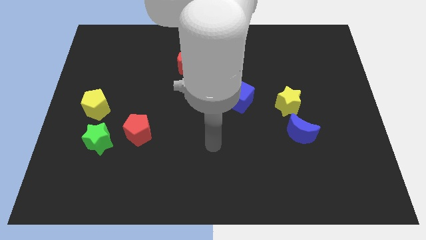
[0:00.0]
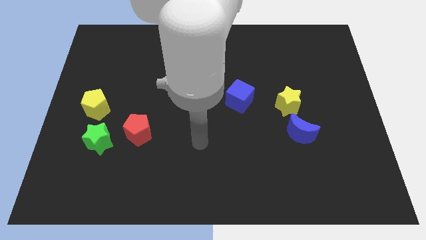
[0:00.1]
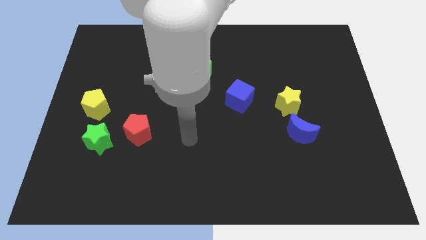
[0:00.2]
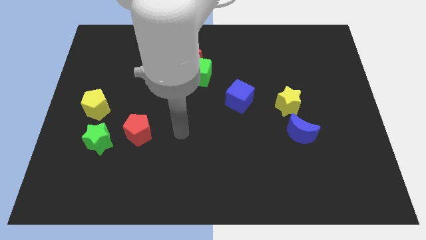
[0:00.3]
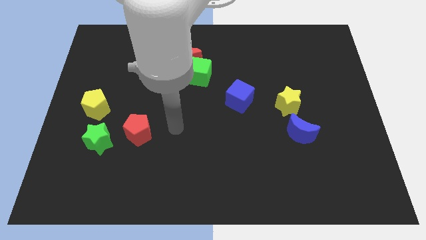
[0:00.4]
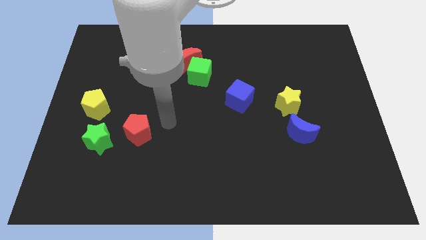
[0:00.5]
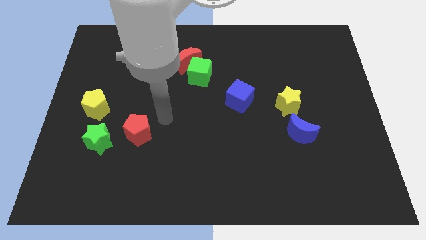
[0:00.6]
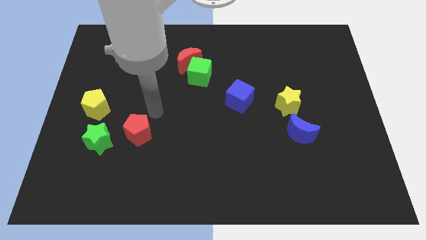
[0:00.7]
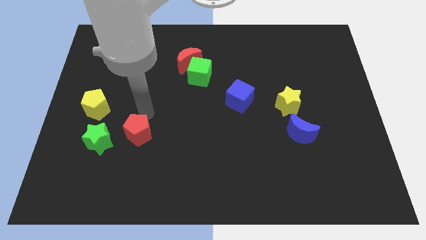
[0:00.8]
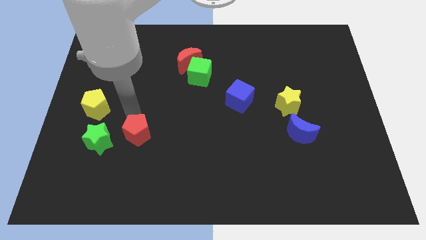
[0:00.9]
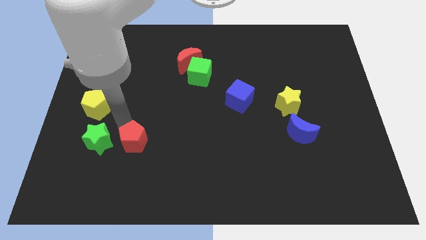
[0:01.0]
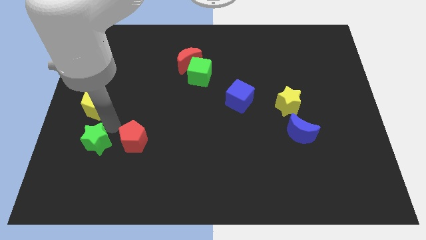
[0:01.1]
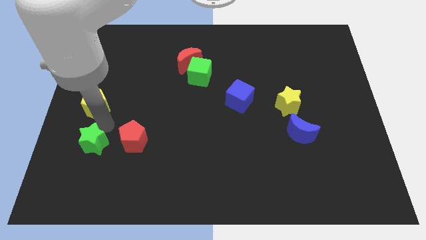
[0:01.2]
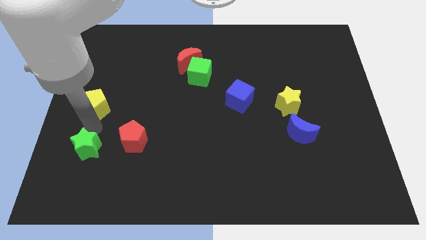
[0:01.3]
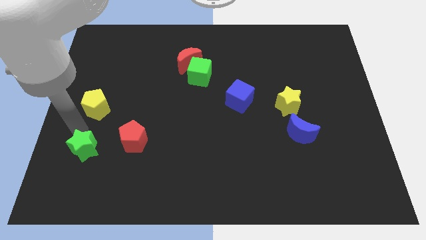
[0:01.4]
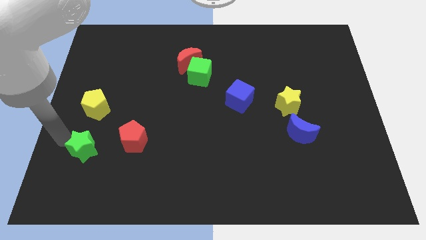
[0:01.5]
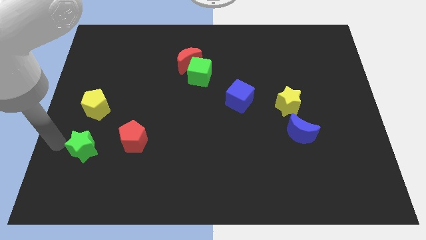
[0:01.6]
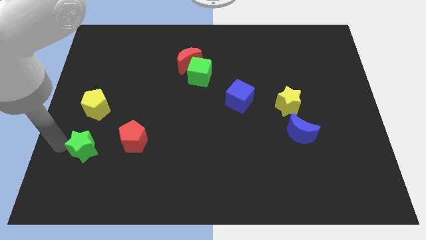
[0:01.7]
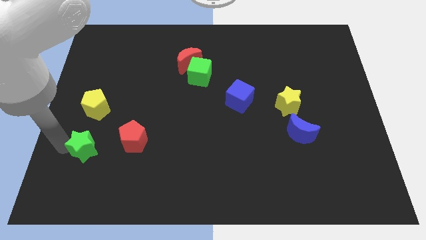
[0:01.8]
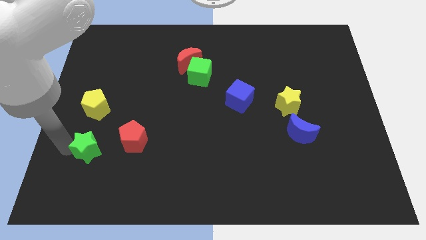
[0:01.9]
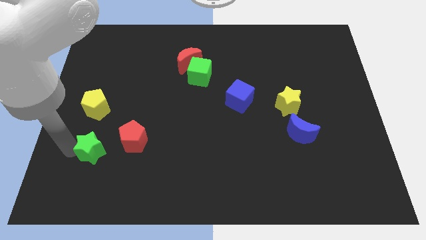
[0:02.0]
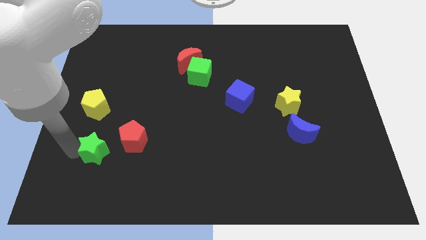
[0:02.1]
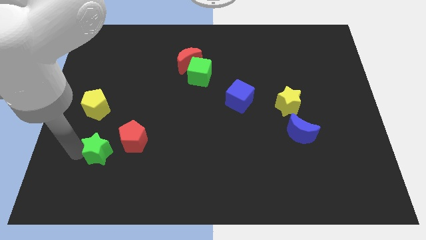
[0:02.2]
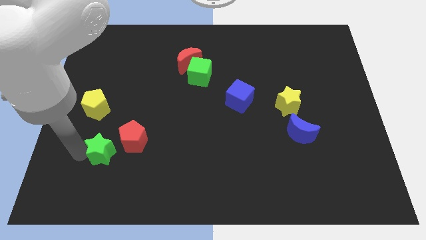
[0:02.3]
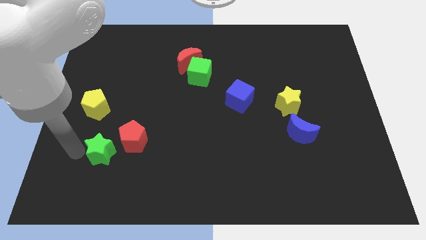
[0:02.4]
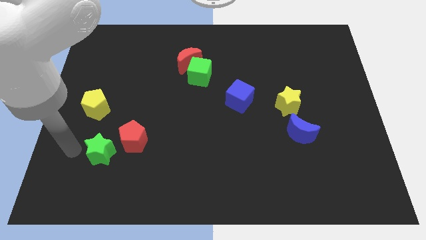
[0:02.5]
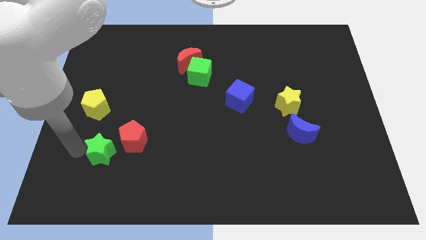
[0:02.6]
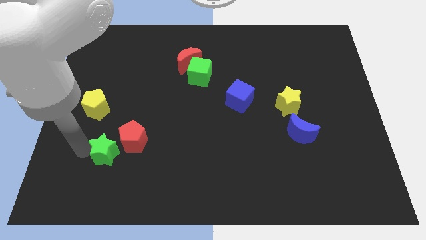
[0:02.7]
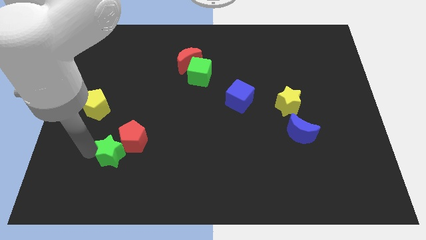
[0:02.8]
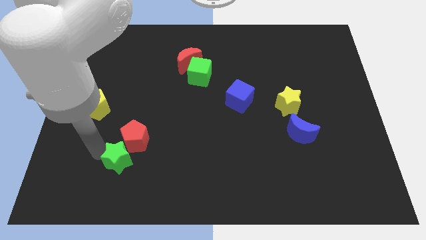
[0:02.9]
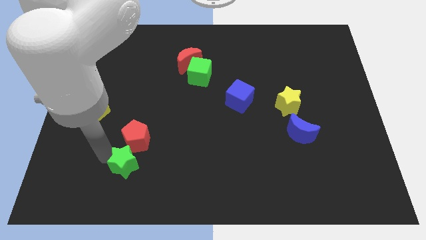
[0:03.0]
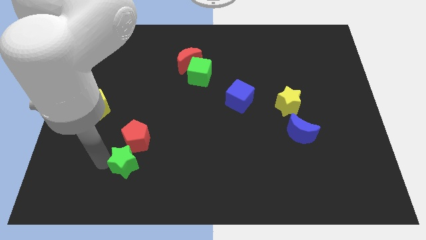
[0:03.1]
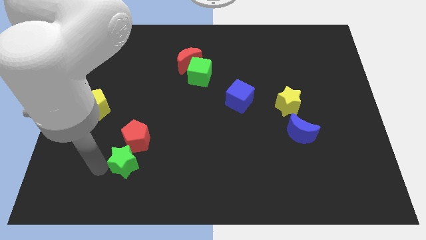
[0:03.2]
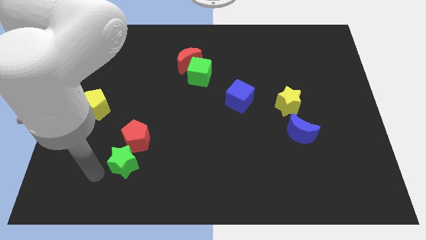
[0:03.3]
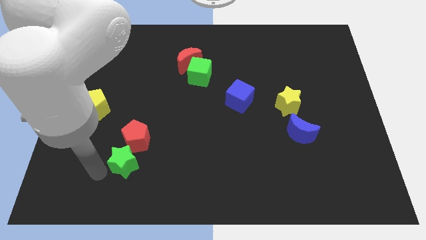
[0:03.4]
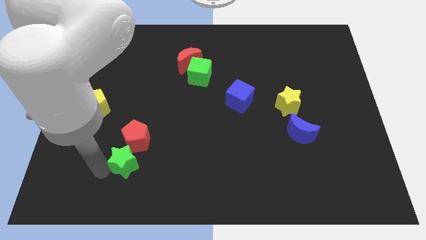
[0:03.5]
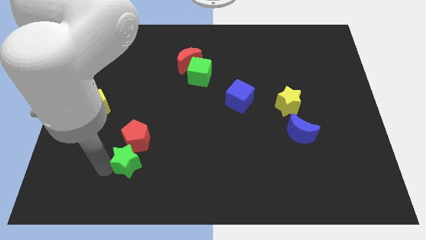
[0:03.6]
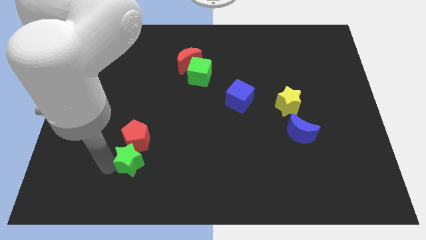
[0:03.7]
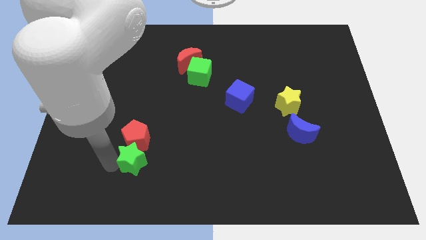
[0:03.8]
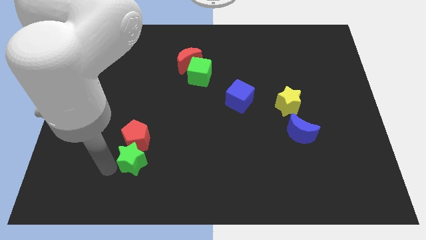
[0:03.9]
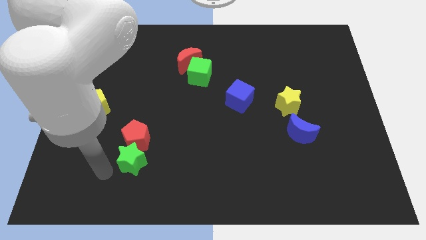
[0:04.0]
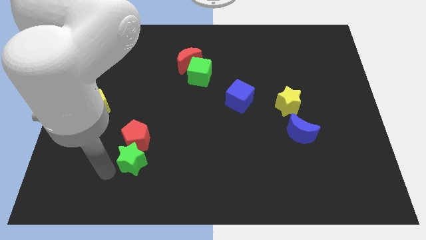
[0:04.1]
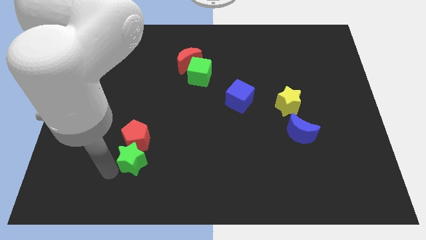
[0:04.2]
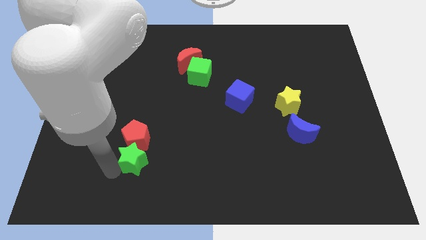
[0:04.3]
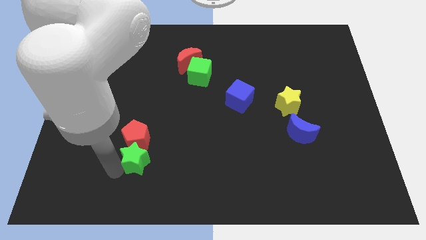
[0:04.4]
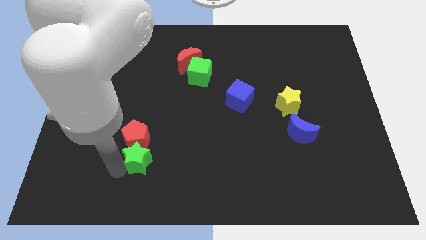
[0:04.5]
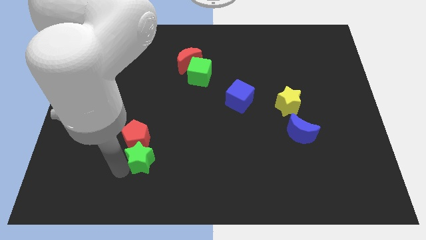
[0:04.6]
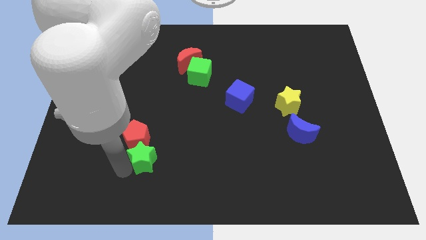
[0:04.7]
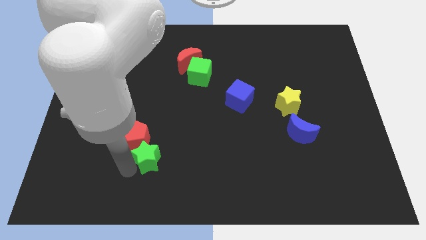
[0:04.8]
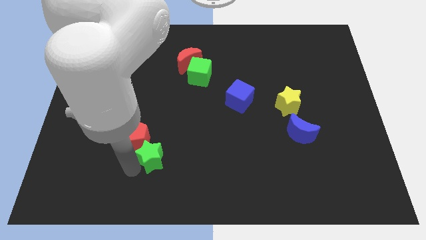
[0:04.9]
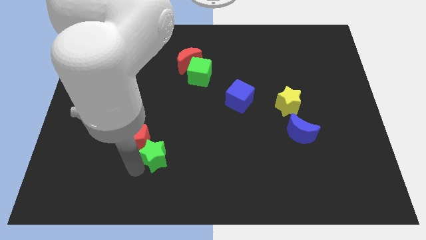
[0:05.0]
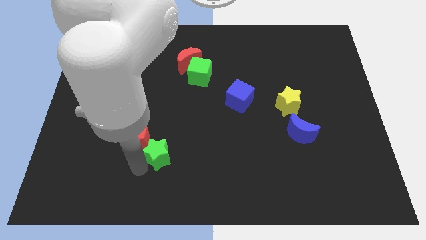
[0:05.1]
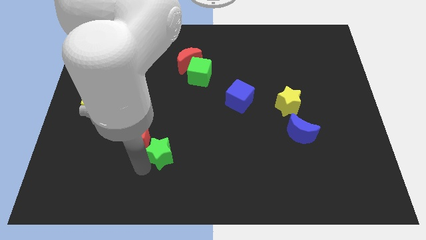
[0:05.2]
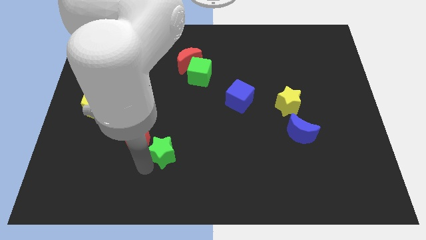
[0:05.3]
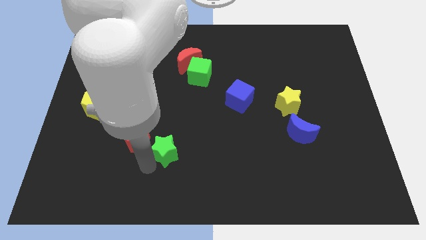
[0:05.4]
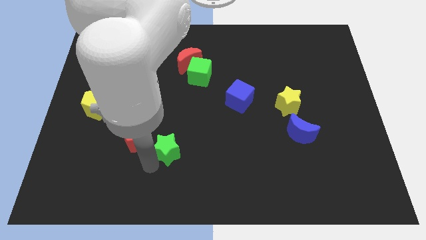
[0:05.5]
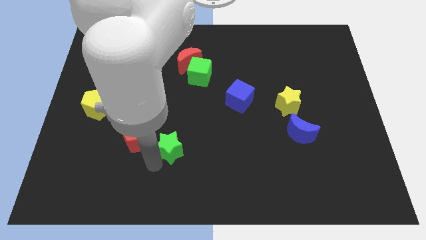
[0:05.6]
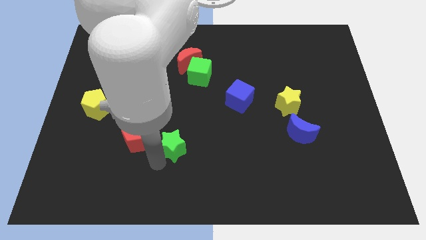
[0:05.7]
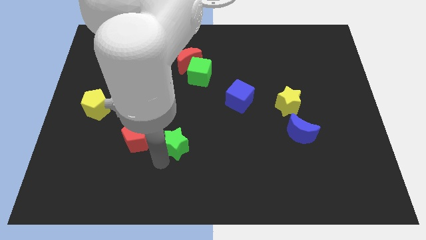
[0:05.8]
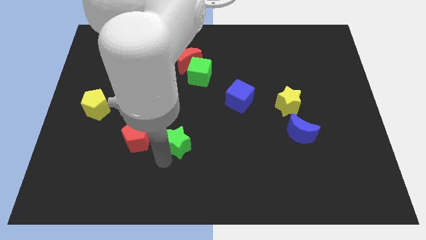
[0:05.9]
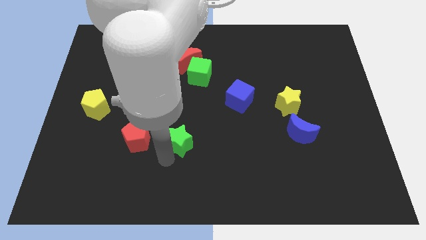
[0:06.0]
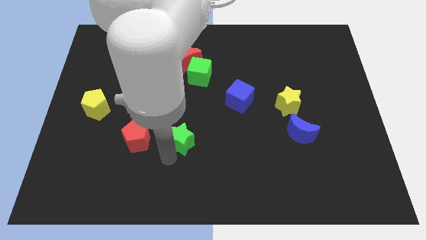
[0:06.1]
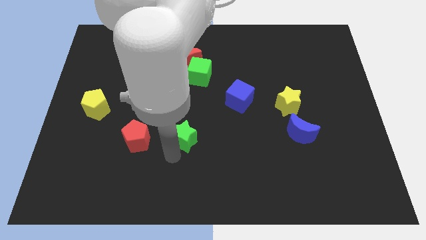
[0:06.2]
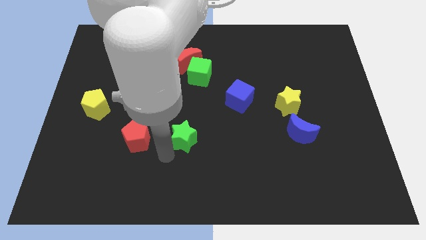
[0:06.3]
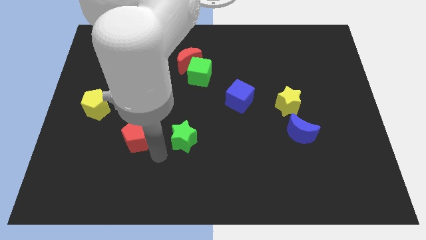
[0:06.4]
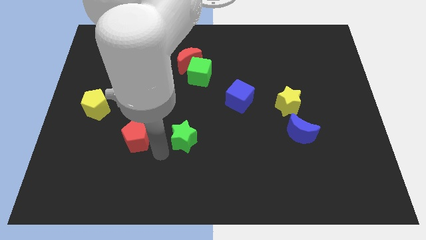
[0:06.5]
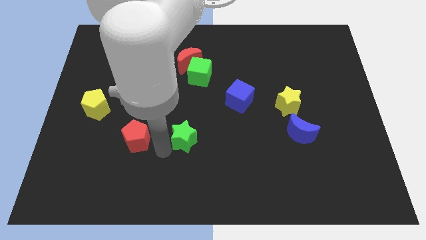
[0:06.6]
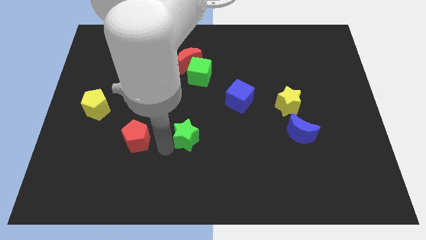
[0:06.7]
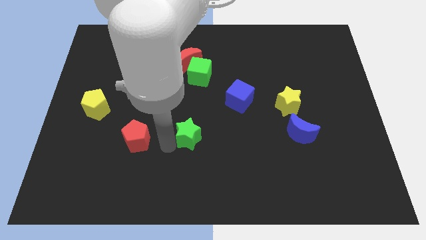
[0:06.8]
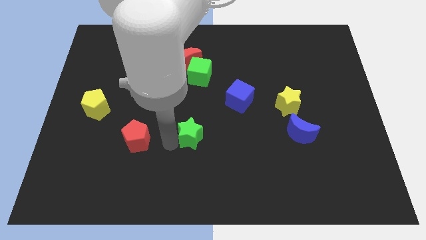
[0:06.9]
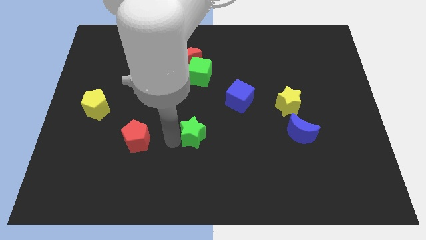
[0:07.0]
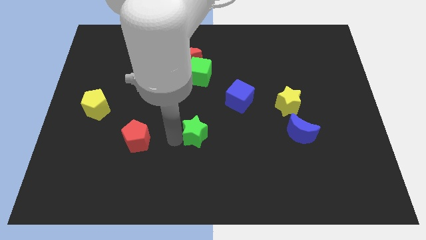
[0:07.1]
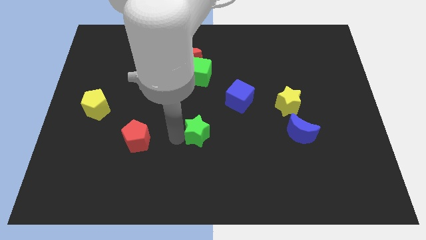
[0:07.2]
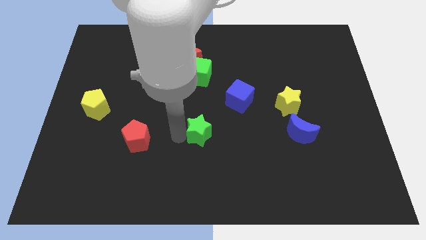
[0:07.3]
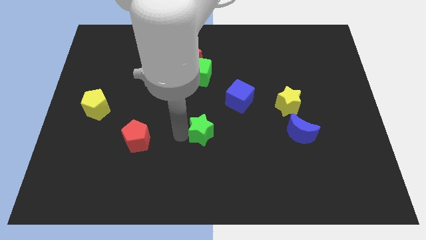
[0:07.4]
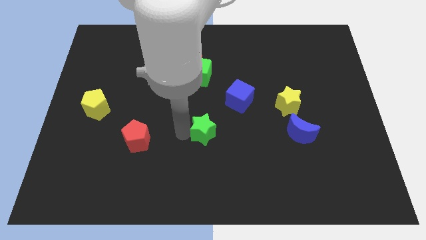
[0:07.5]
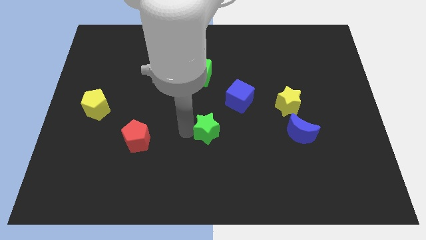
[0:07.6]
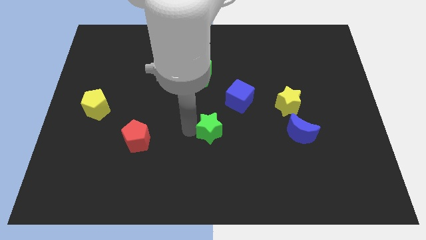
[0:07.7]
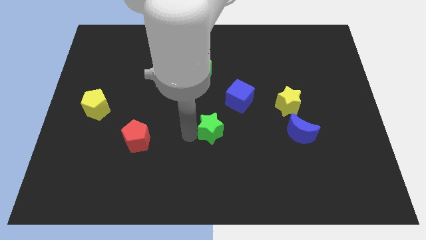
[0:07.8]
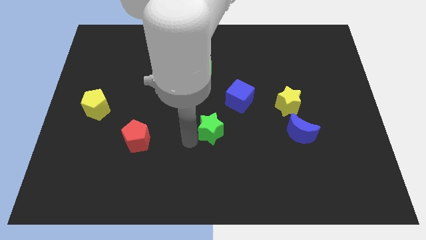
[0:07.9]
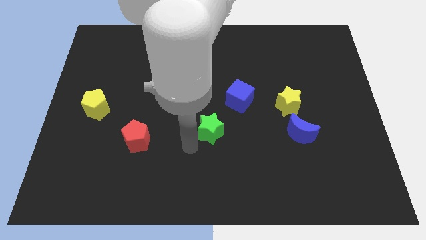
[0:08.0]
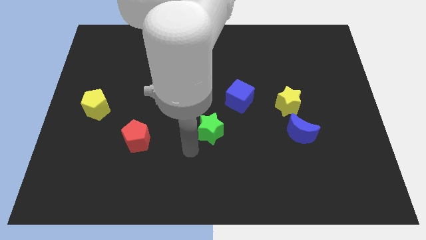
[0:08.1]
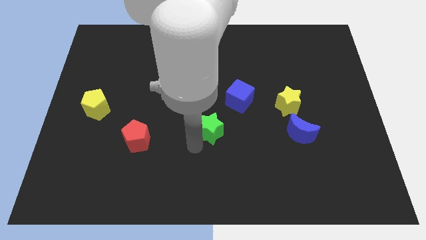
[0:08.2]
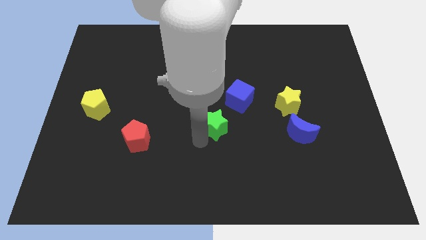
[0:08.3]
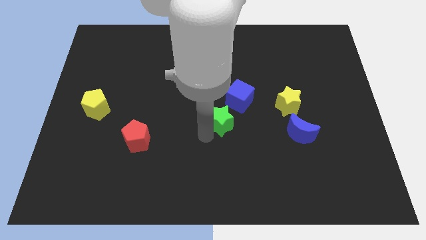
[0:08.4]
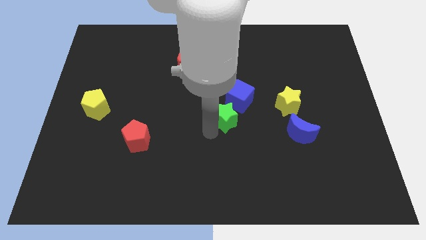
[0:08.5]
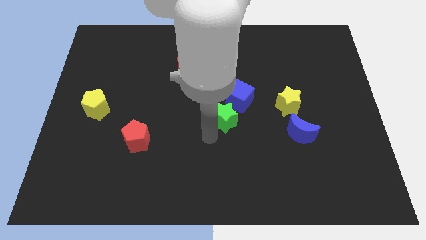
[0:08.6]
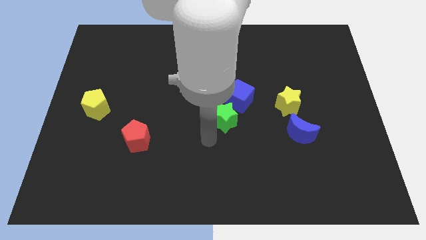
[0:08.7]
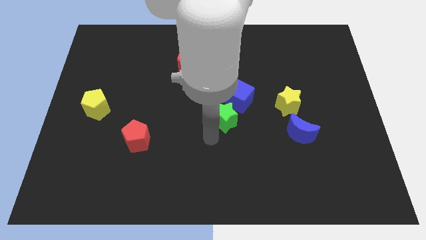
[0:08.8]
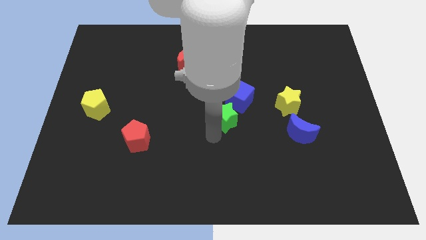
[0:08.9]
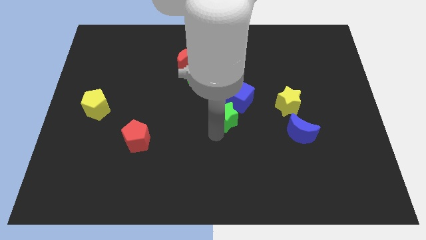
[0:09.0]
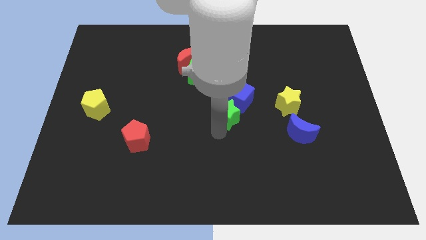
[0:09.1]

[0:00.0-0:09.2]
slide the green star to the blue cube
